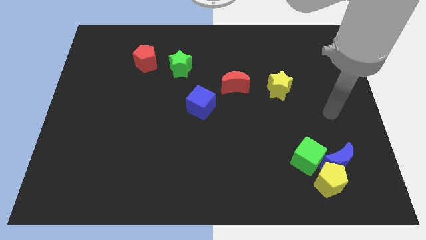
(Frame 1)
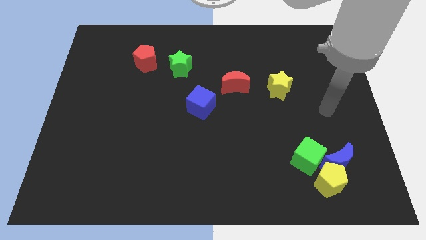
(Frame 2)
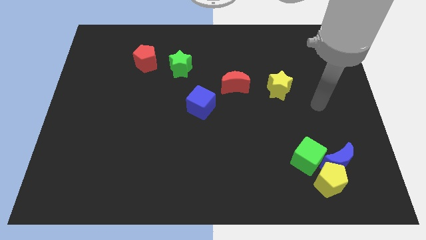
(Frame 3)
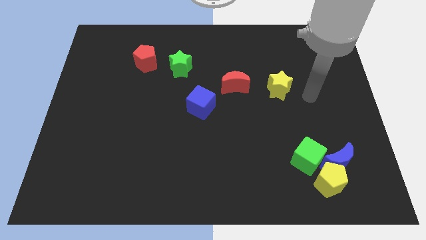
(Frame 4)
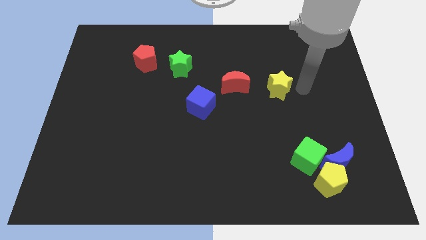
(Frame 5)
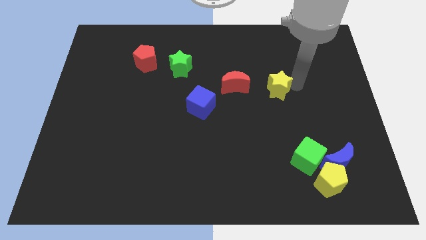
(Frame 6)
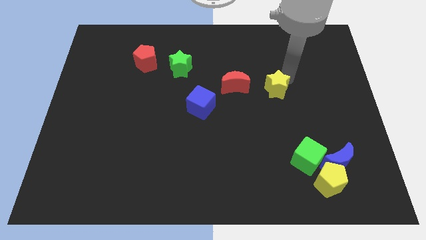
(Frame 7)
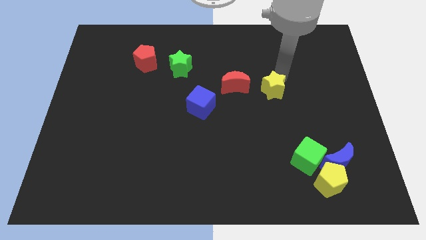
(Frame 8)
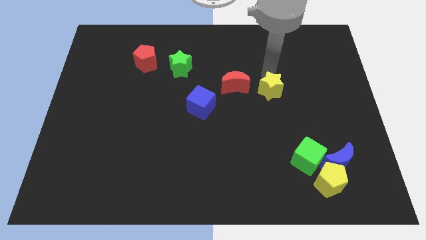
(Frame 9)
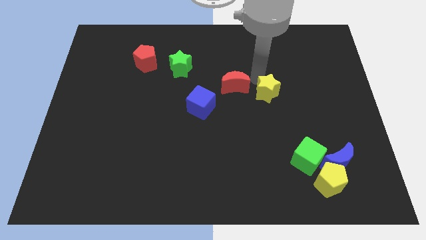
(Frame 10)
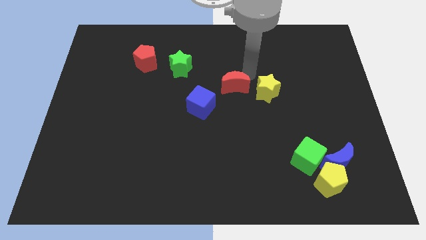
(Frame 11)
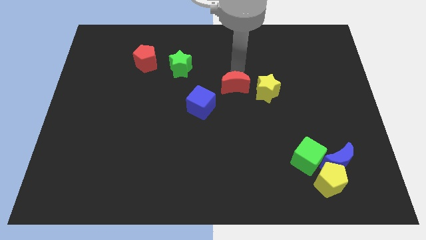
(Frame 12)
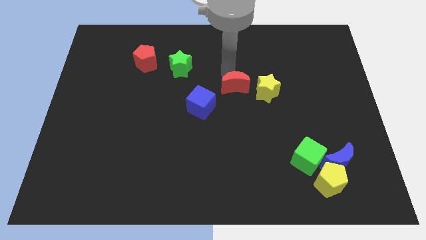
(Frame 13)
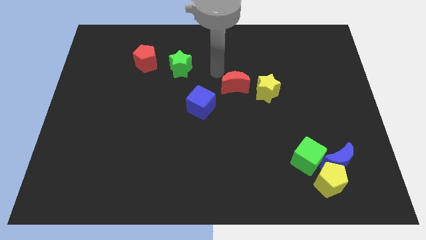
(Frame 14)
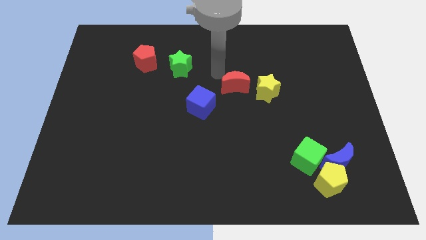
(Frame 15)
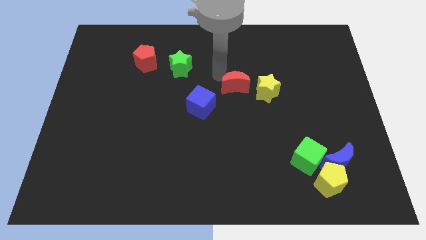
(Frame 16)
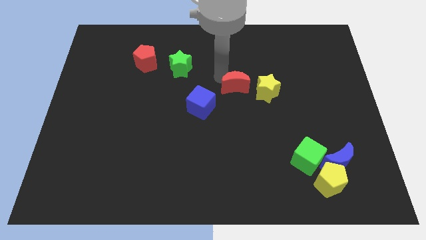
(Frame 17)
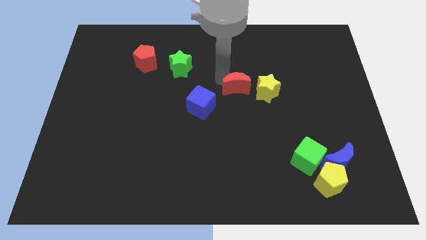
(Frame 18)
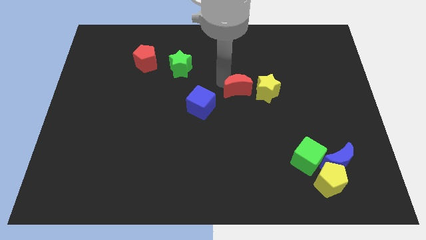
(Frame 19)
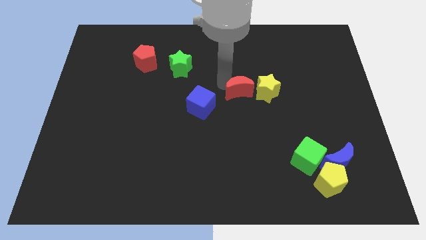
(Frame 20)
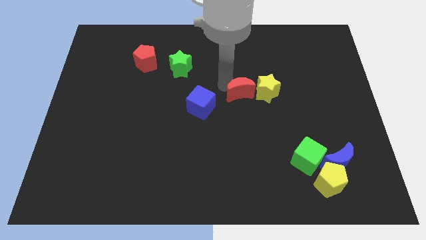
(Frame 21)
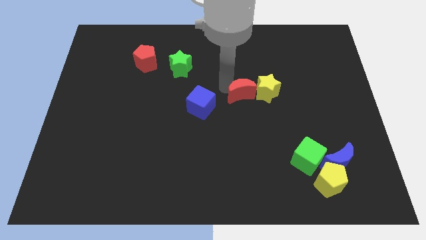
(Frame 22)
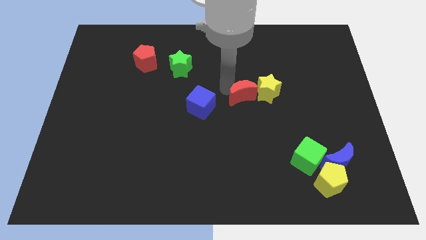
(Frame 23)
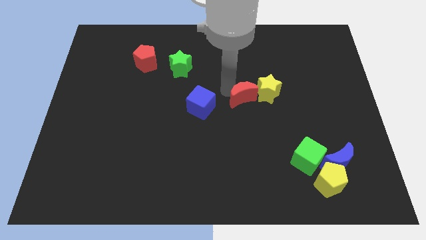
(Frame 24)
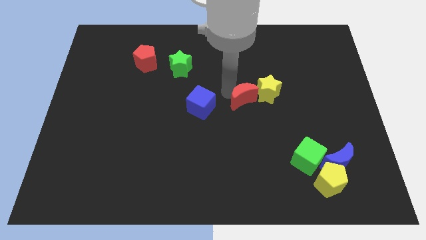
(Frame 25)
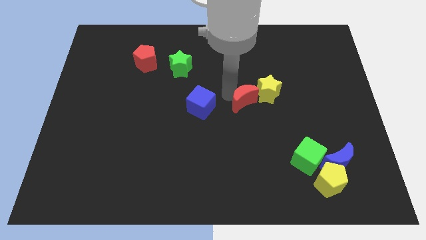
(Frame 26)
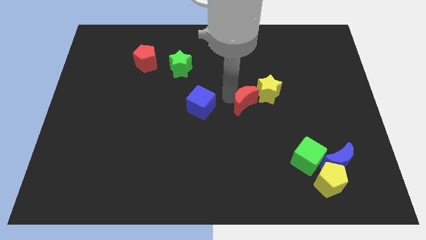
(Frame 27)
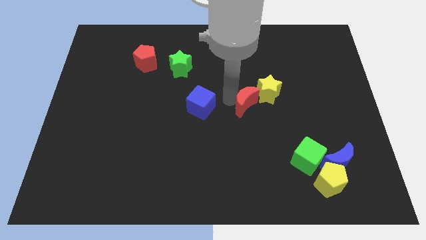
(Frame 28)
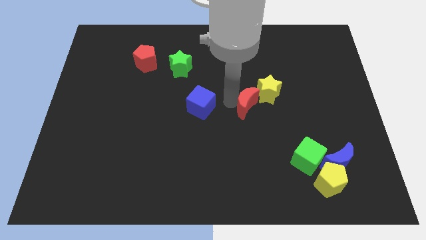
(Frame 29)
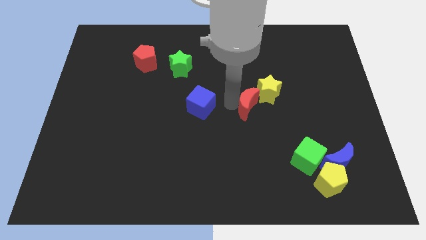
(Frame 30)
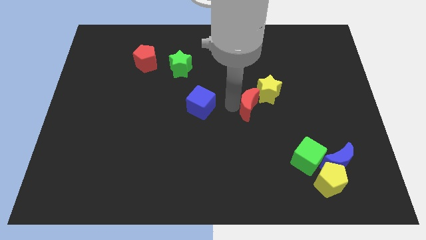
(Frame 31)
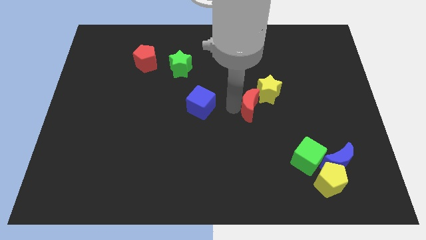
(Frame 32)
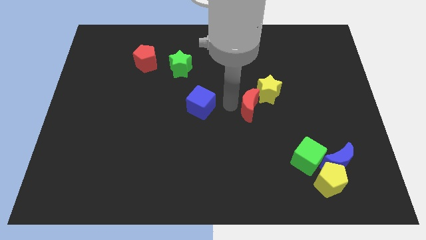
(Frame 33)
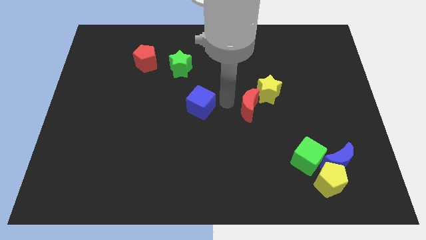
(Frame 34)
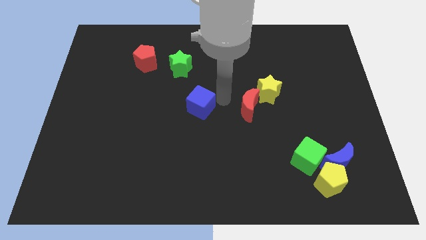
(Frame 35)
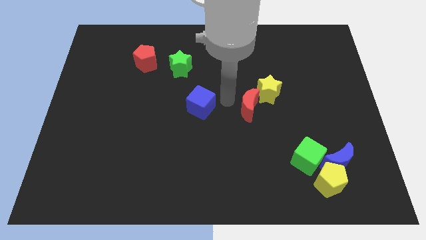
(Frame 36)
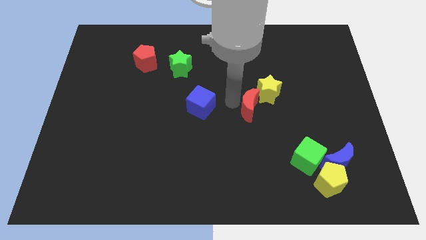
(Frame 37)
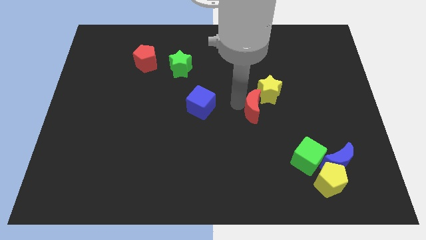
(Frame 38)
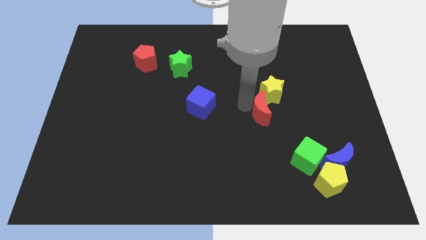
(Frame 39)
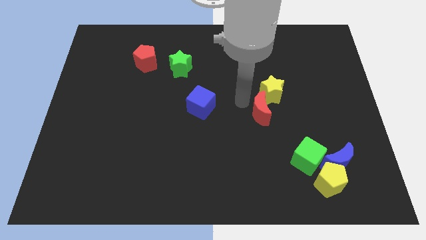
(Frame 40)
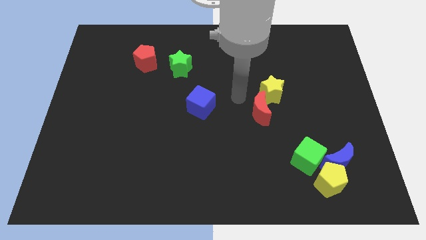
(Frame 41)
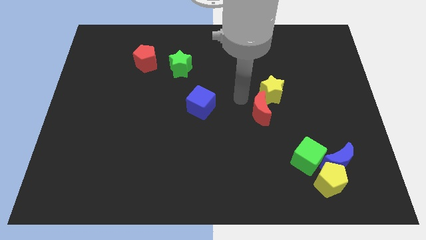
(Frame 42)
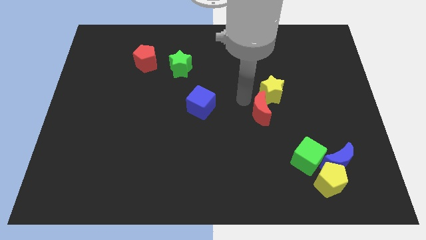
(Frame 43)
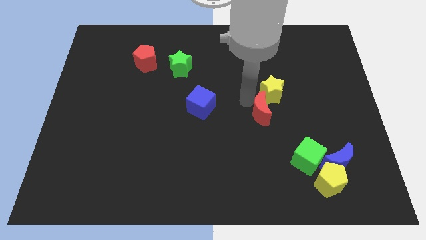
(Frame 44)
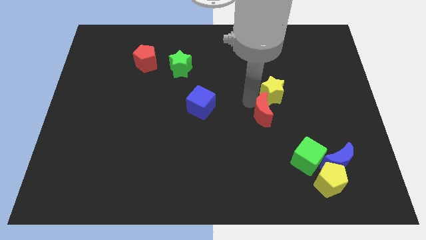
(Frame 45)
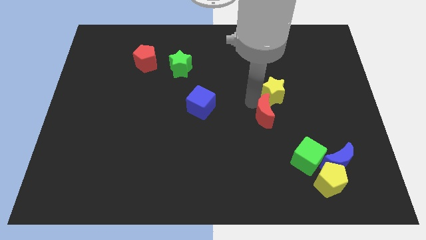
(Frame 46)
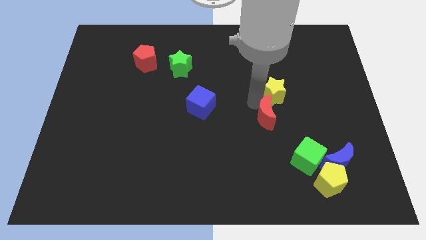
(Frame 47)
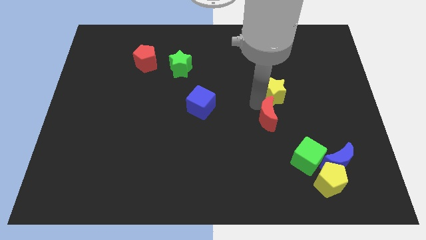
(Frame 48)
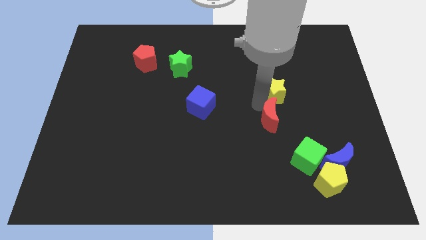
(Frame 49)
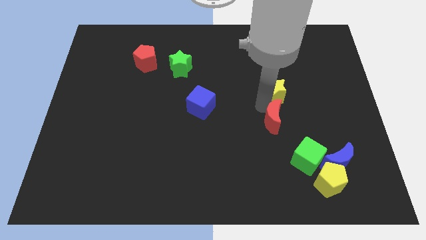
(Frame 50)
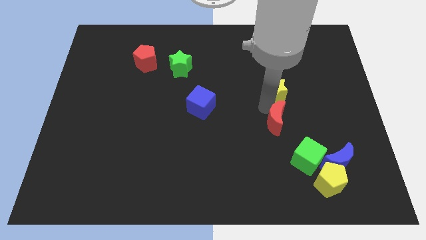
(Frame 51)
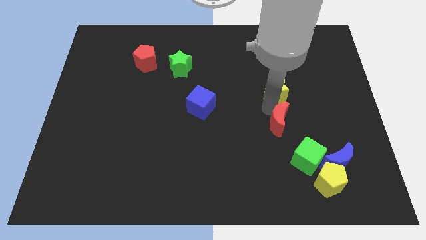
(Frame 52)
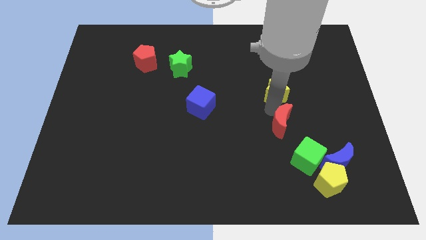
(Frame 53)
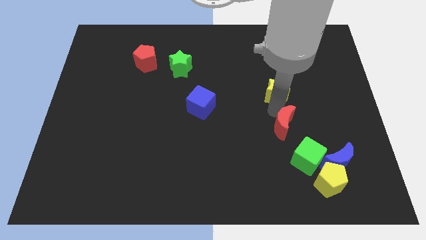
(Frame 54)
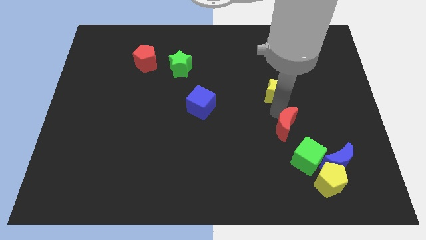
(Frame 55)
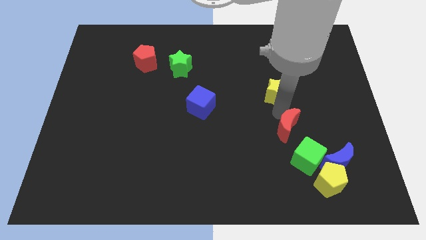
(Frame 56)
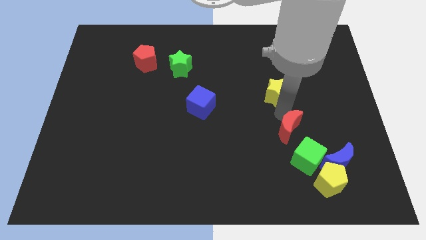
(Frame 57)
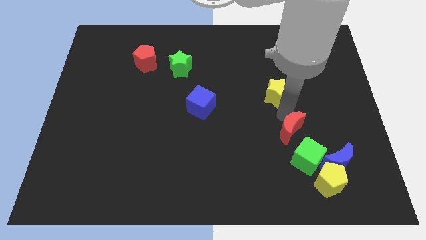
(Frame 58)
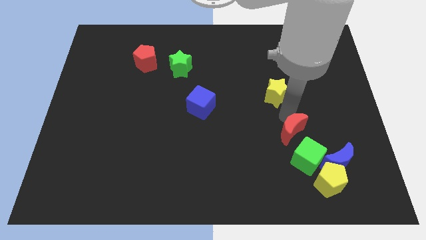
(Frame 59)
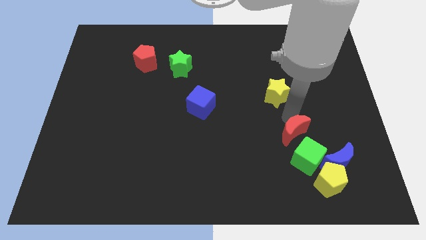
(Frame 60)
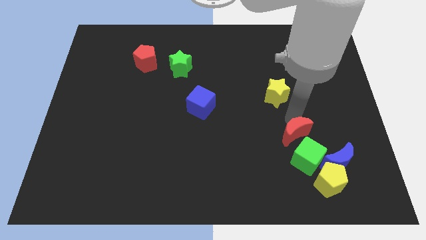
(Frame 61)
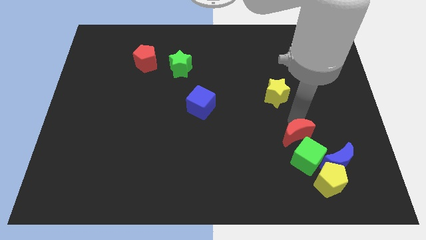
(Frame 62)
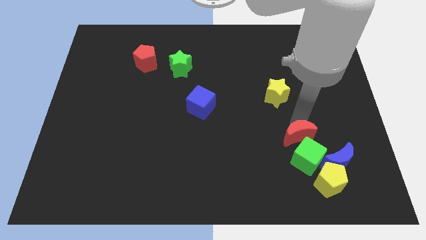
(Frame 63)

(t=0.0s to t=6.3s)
put the red moon close to the green cube
